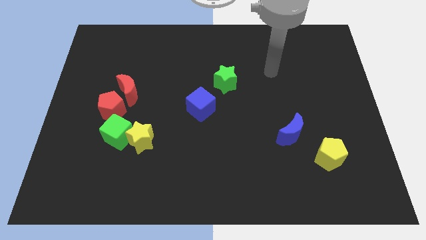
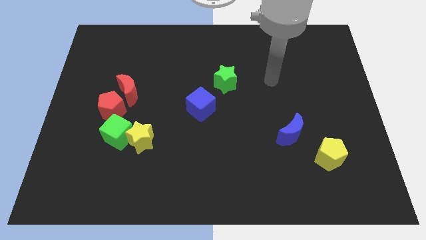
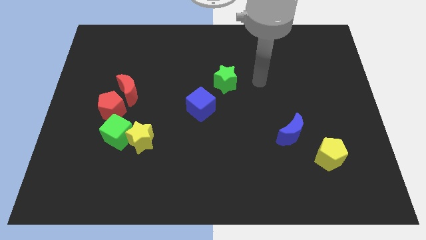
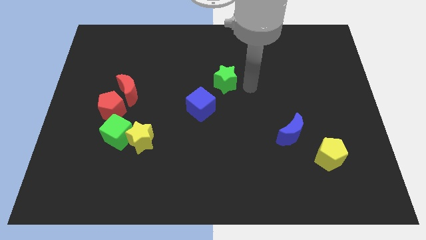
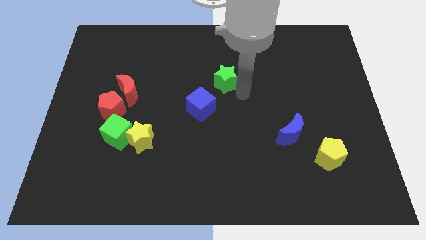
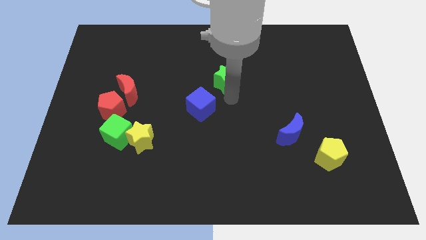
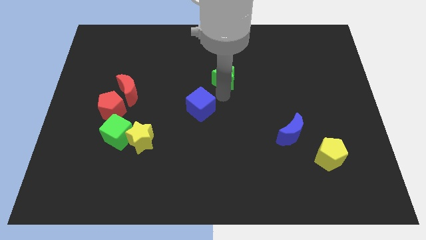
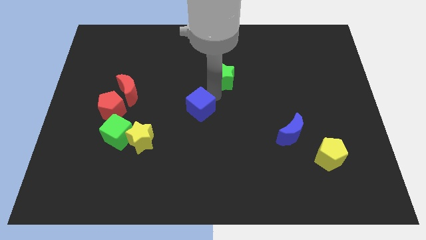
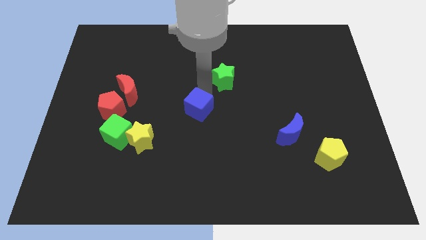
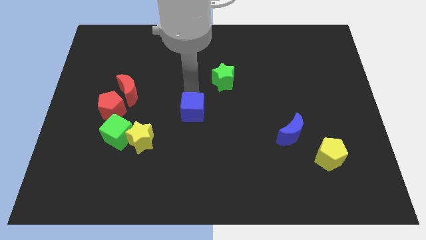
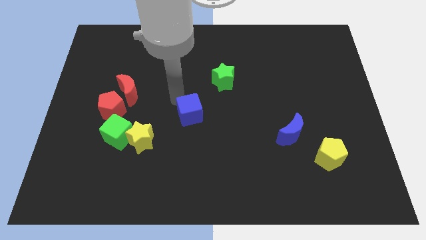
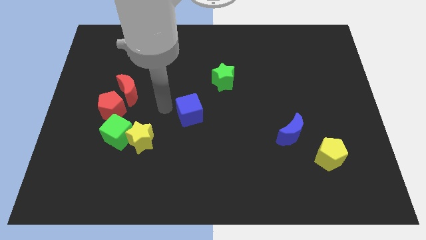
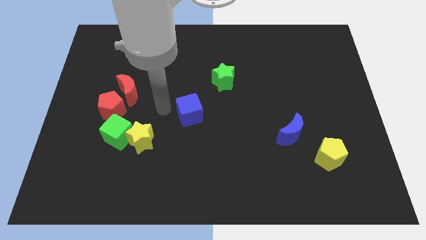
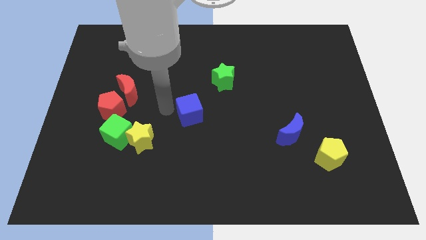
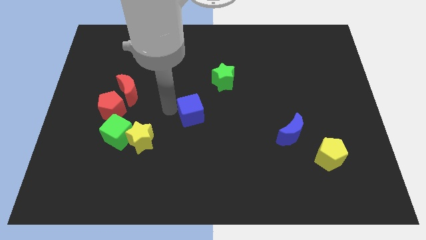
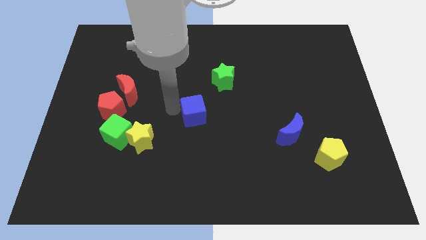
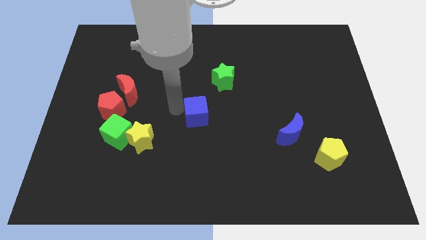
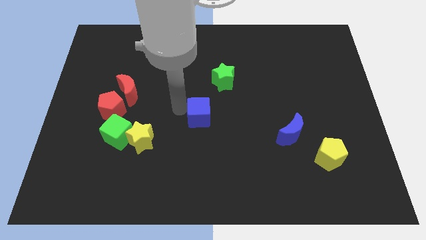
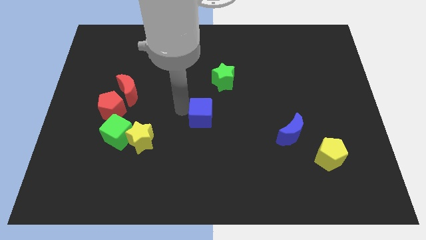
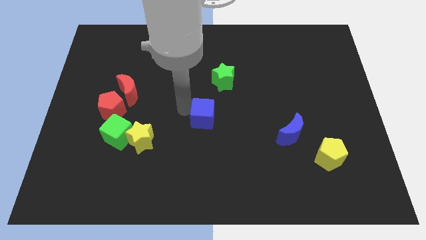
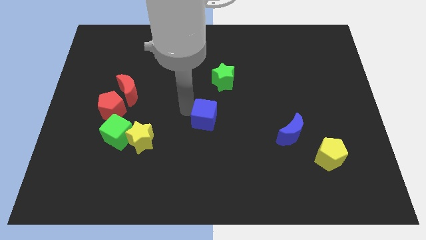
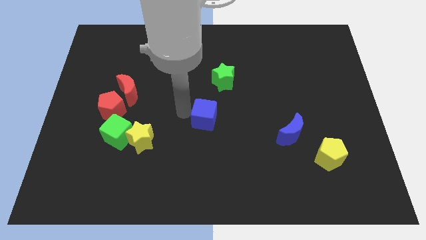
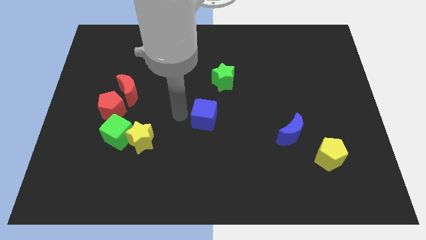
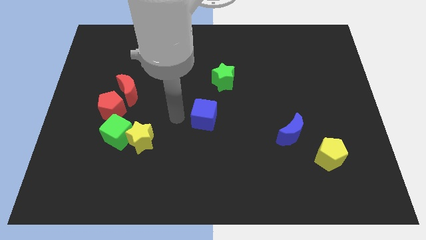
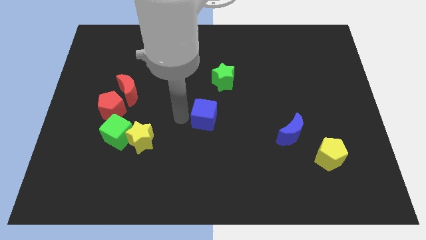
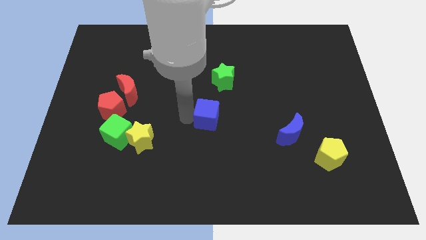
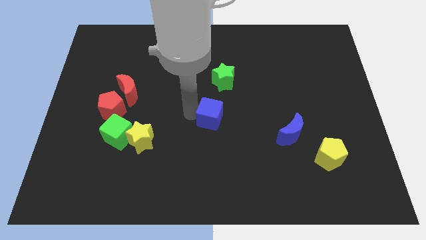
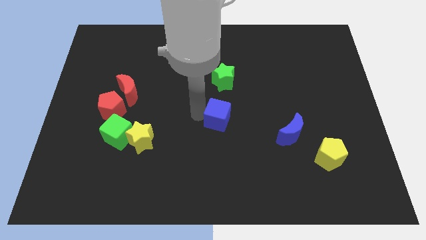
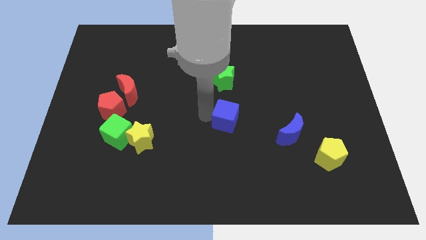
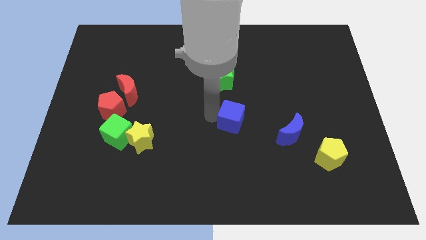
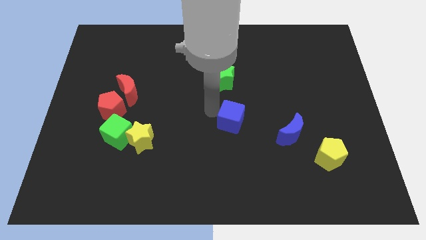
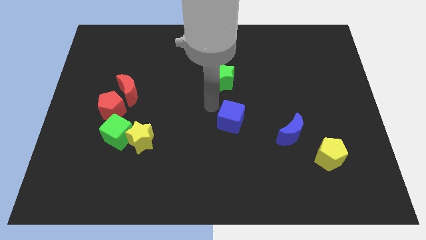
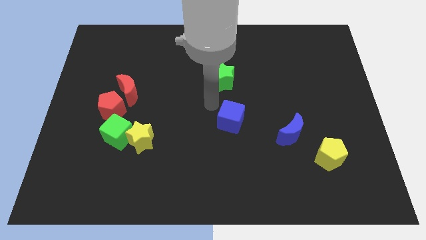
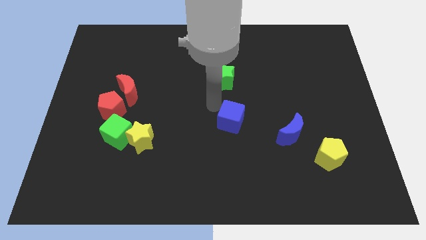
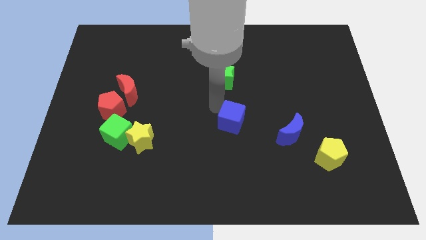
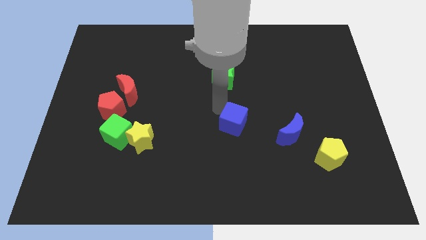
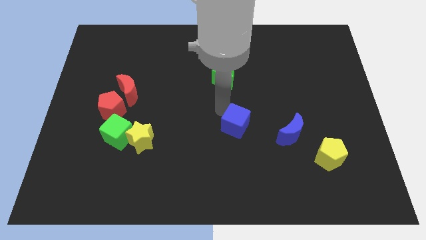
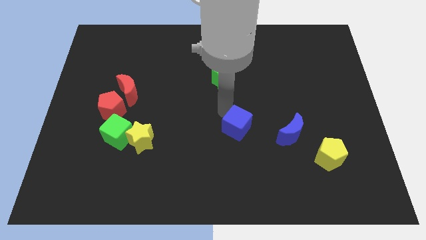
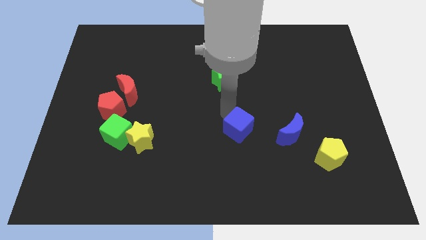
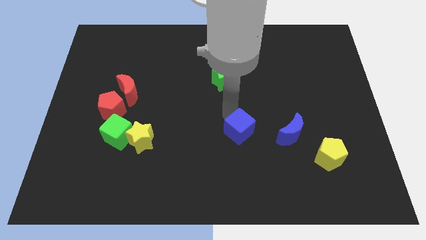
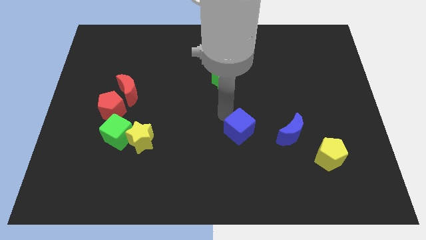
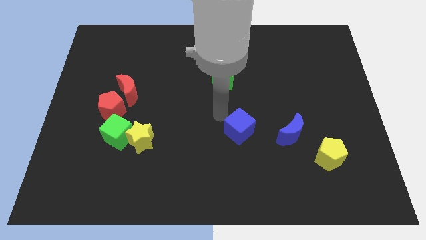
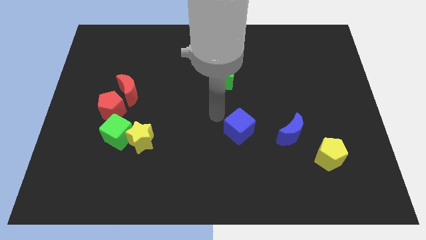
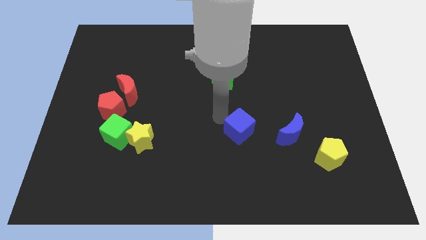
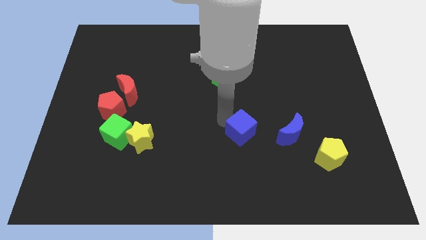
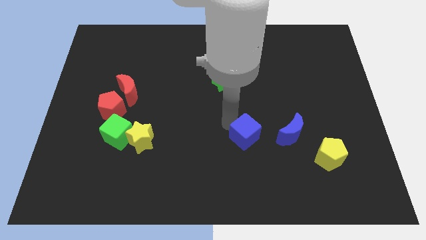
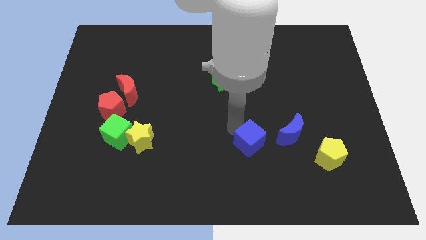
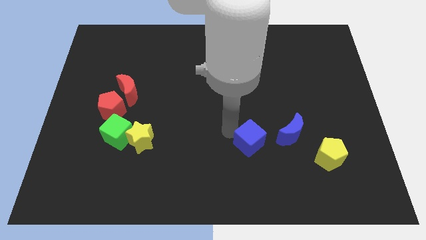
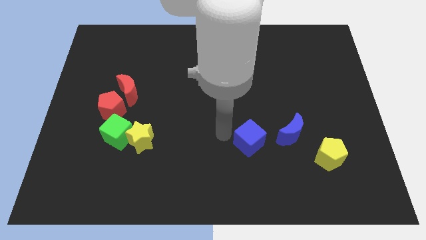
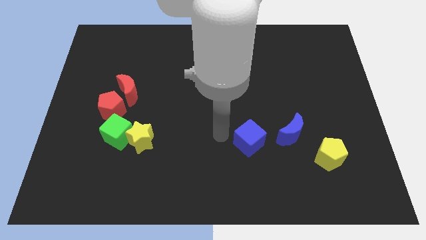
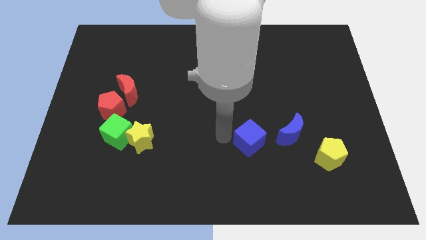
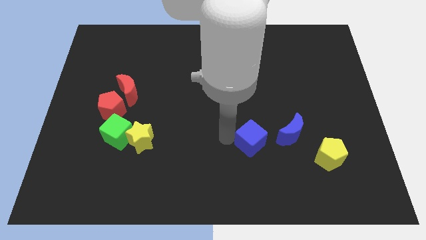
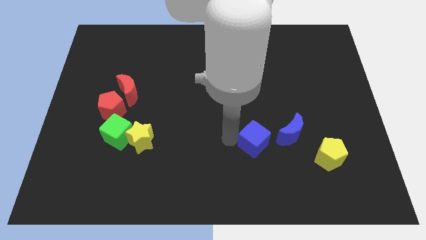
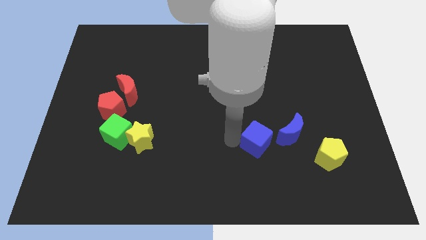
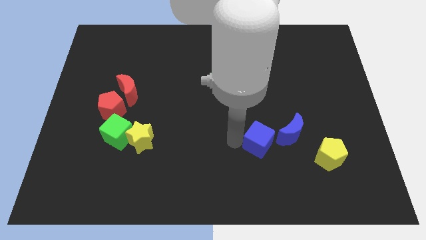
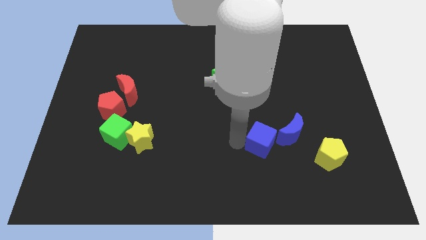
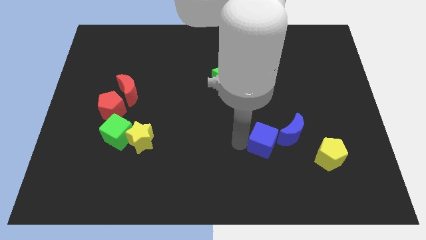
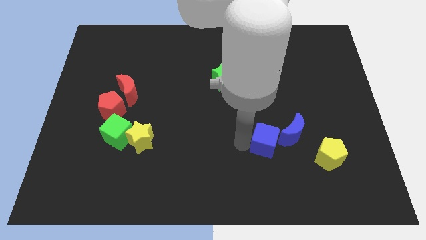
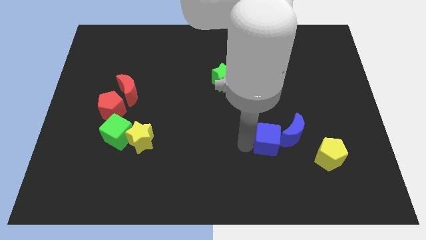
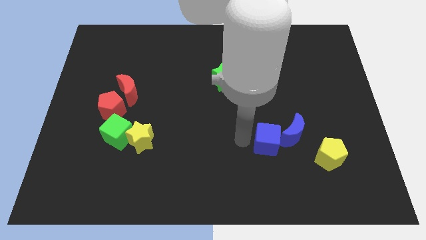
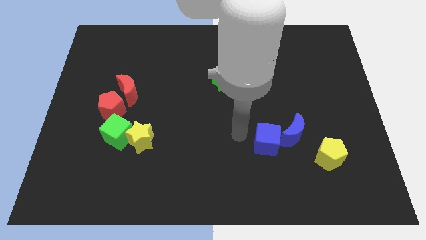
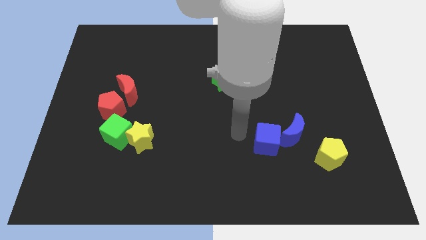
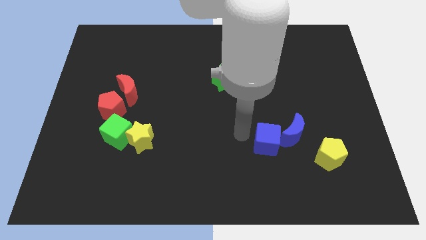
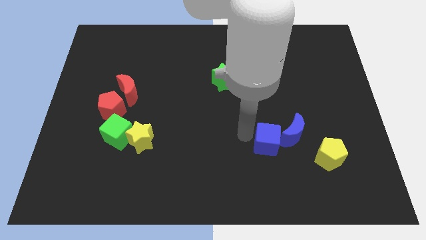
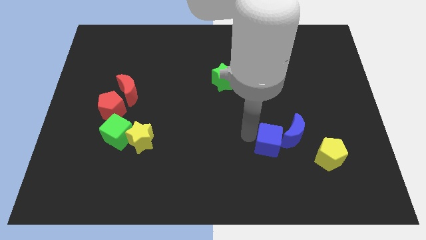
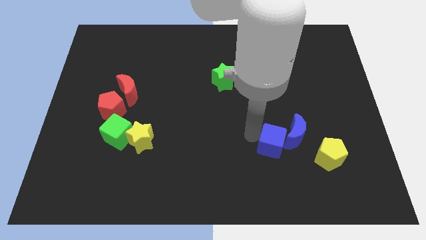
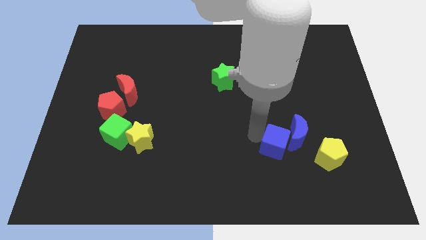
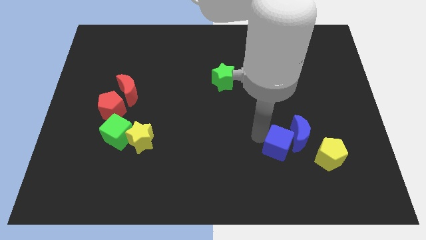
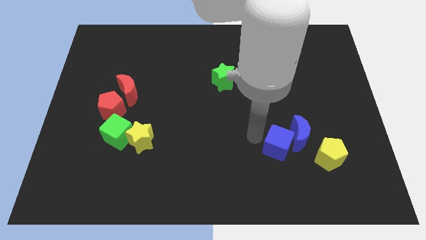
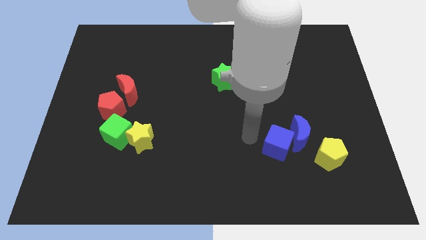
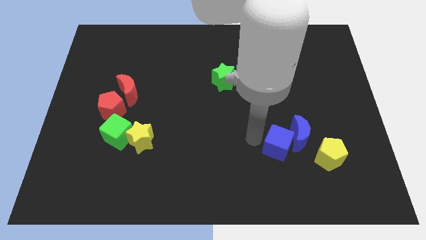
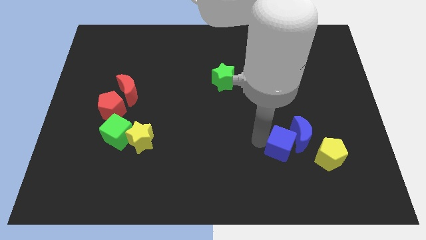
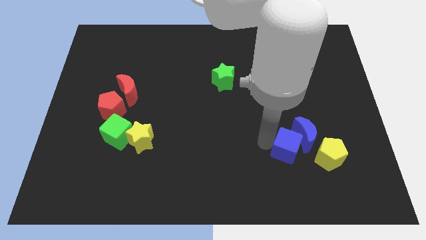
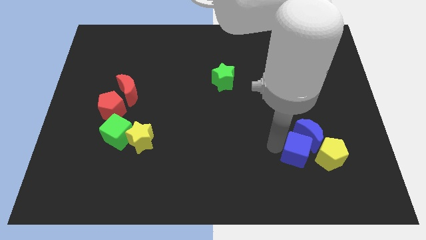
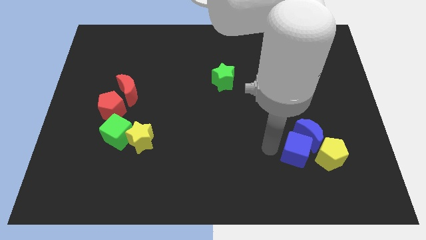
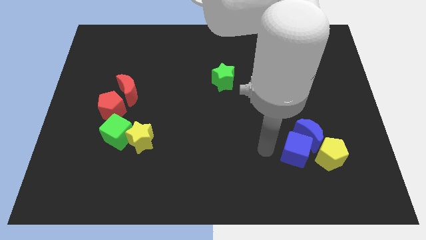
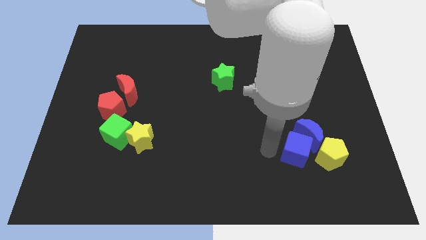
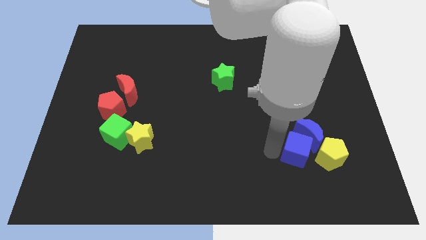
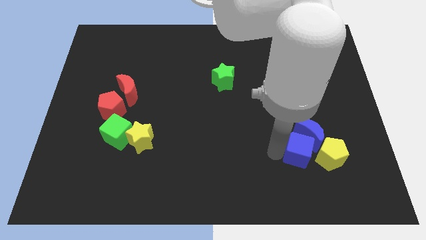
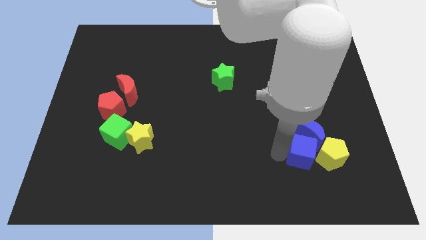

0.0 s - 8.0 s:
move the blue cube close to the yellow pentagon
